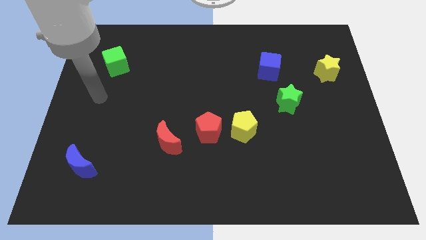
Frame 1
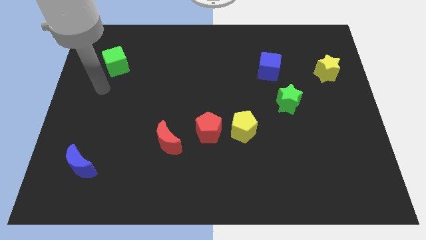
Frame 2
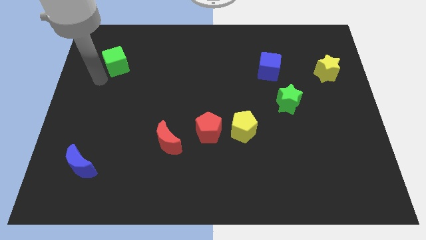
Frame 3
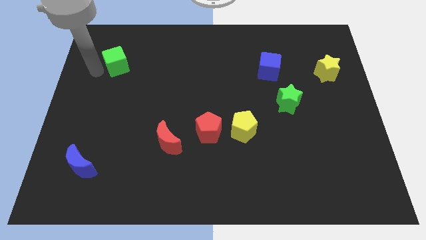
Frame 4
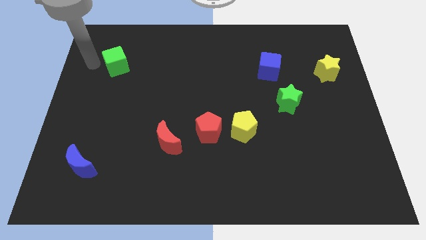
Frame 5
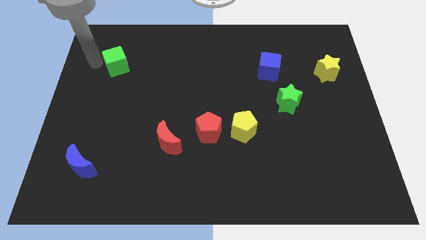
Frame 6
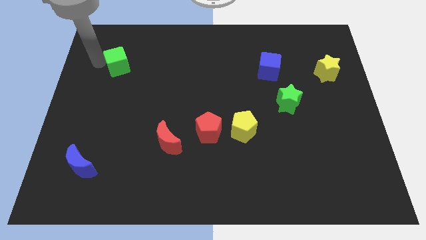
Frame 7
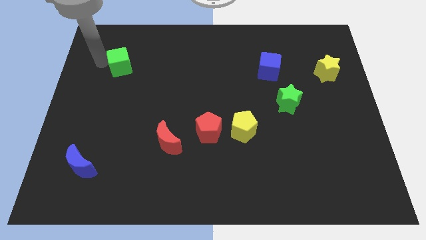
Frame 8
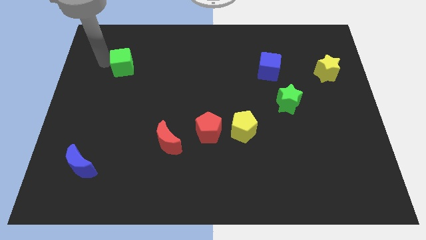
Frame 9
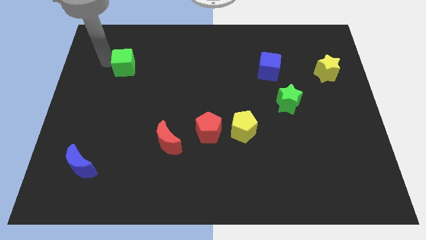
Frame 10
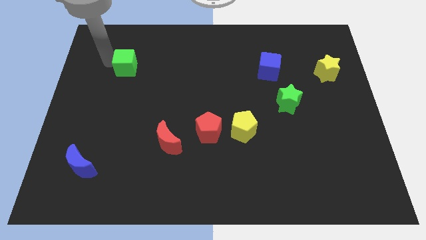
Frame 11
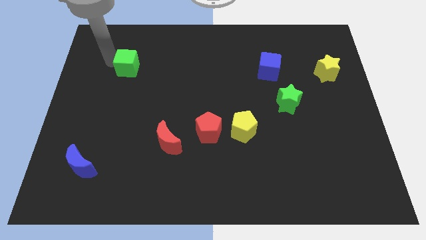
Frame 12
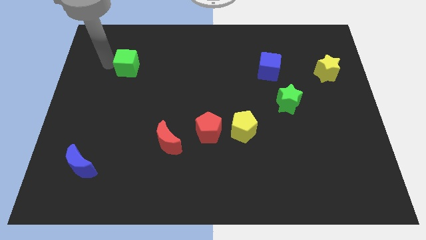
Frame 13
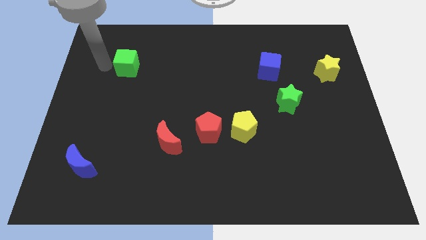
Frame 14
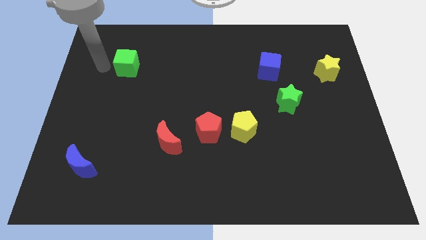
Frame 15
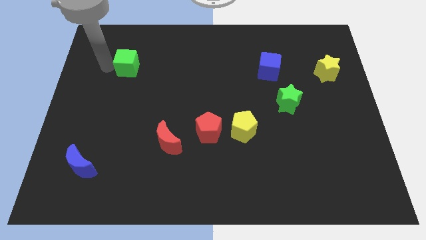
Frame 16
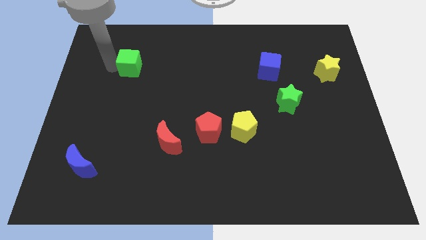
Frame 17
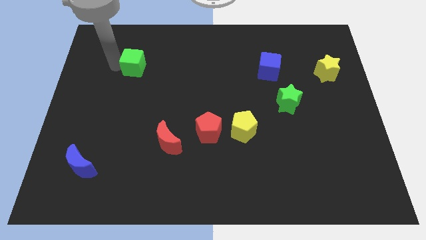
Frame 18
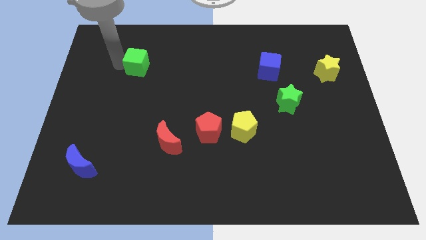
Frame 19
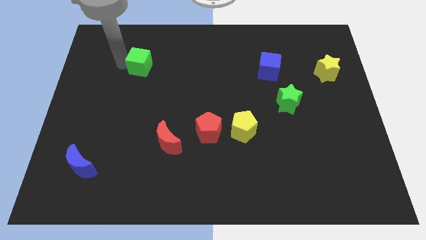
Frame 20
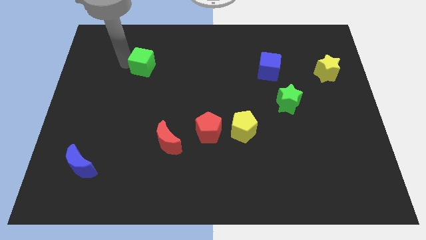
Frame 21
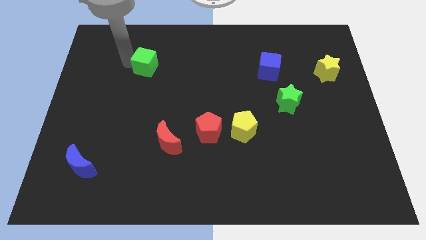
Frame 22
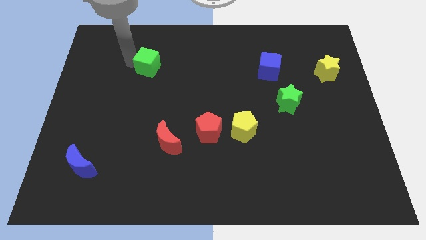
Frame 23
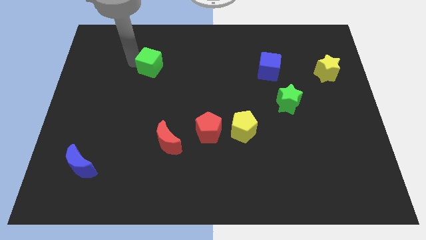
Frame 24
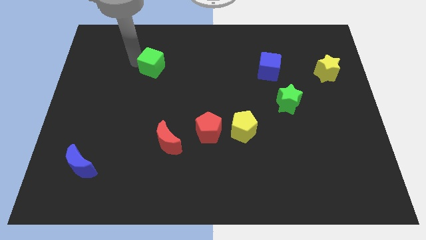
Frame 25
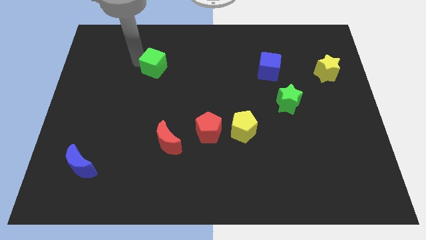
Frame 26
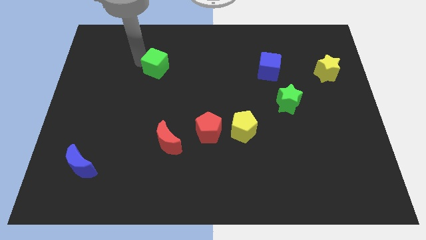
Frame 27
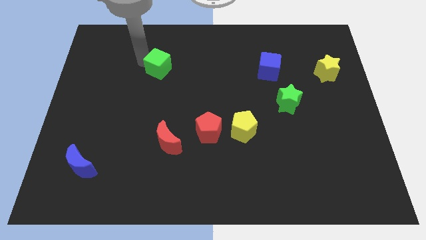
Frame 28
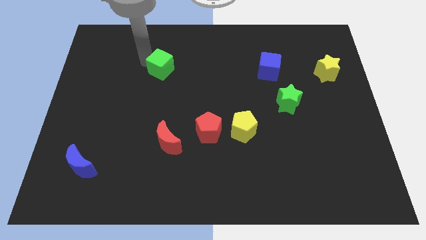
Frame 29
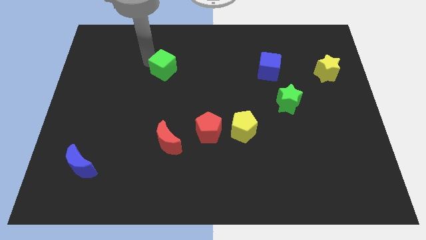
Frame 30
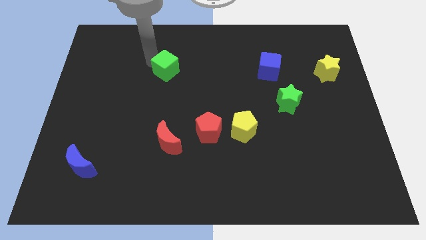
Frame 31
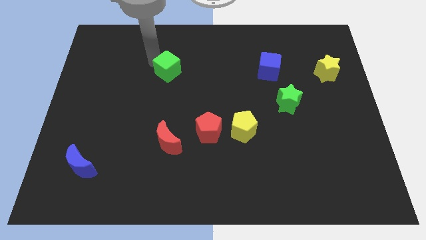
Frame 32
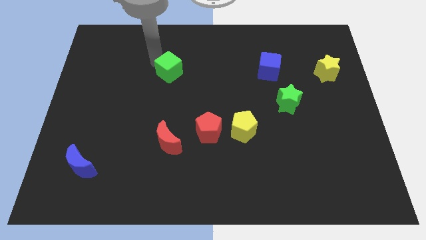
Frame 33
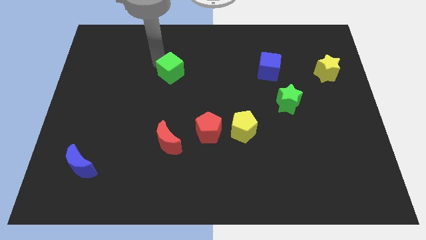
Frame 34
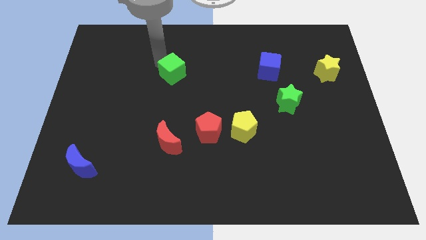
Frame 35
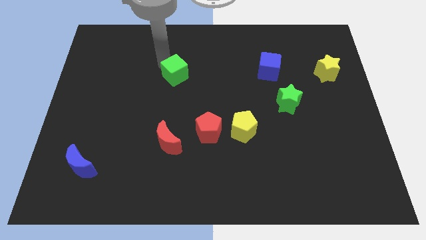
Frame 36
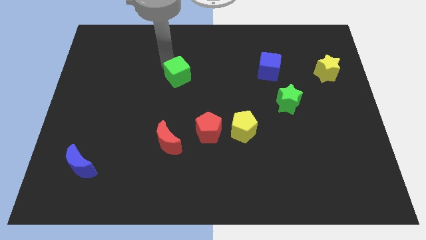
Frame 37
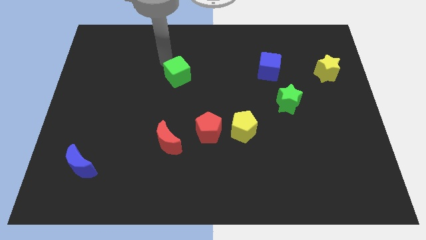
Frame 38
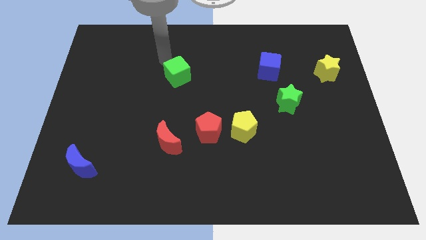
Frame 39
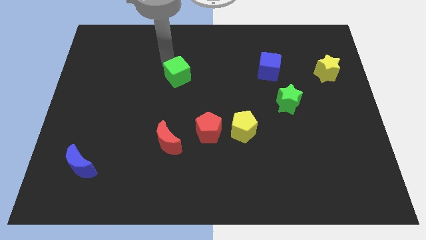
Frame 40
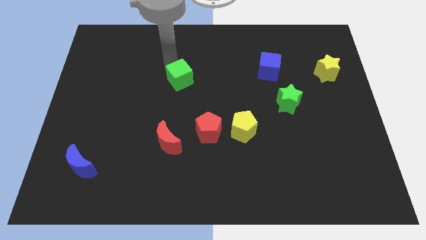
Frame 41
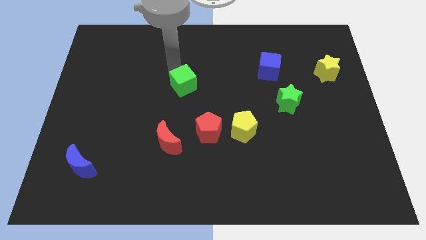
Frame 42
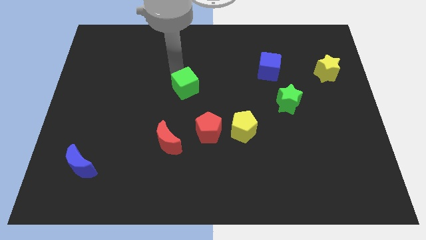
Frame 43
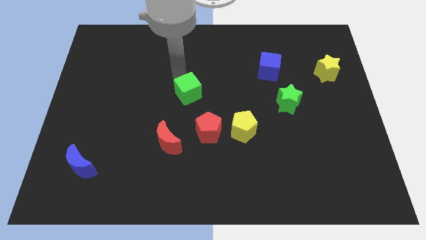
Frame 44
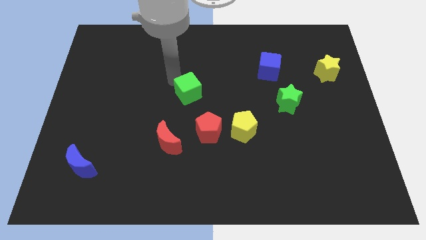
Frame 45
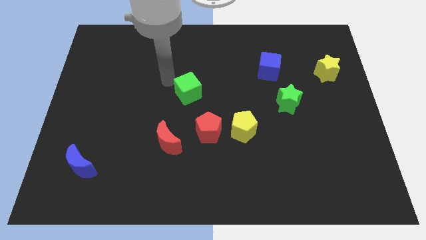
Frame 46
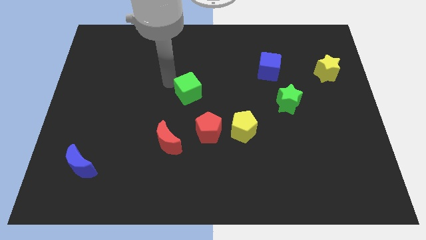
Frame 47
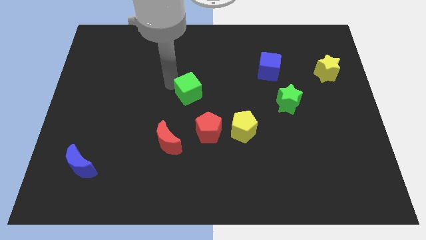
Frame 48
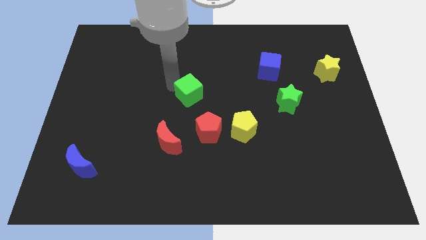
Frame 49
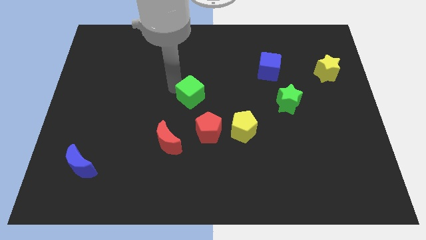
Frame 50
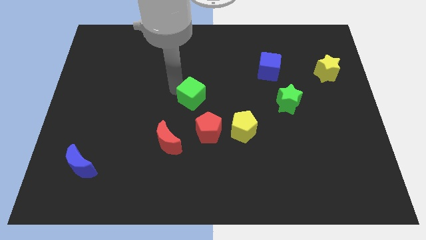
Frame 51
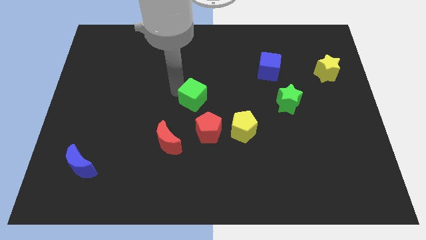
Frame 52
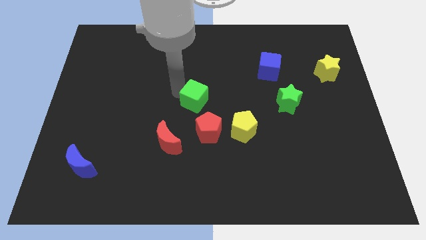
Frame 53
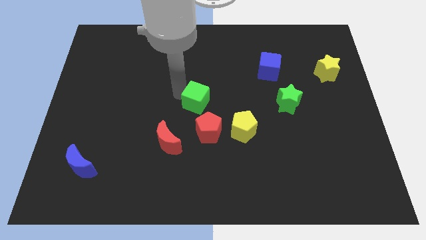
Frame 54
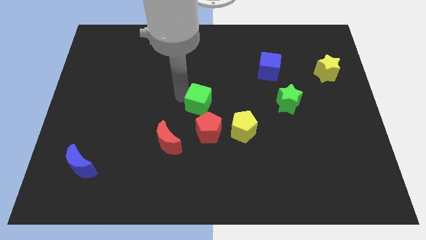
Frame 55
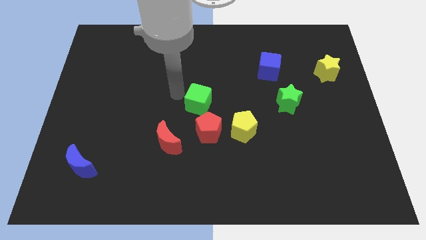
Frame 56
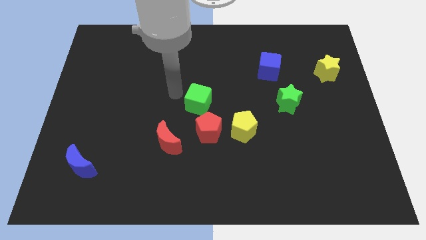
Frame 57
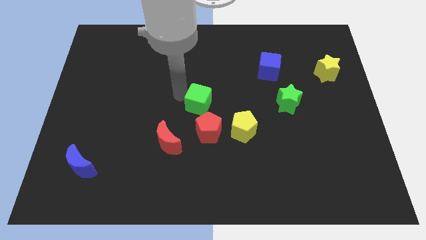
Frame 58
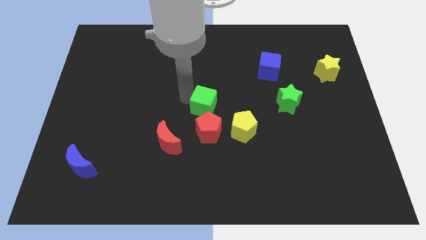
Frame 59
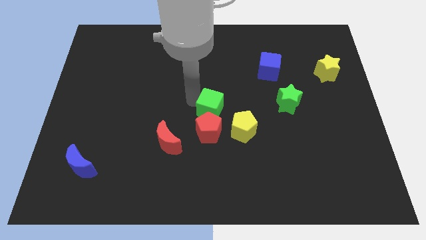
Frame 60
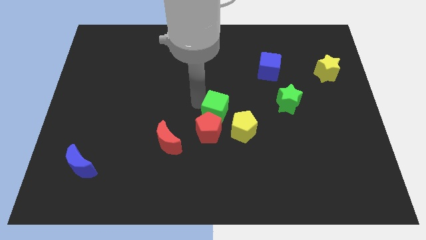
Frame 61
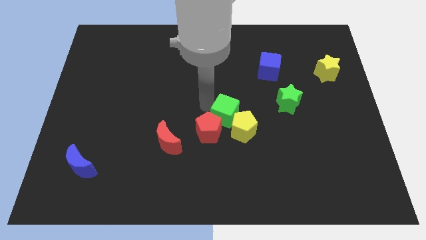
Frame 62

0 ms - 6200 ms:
put the green cube to the yellow pentagon

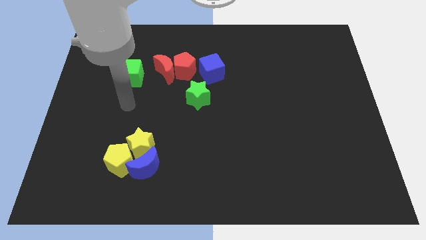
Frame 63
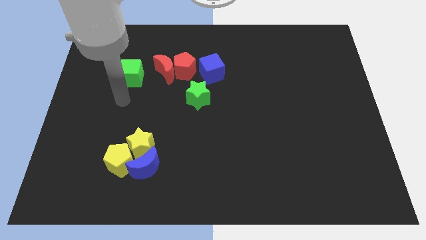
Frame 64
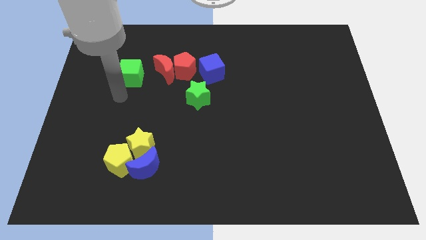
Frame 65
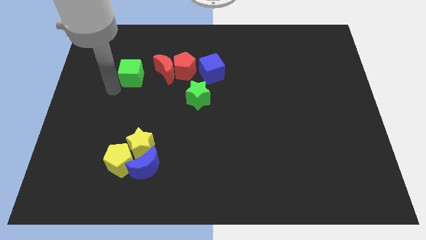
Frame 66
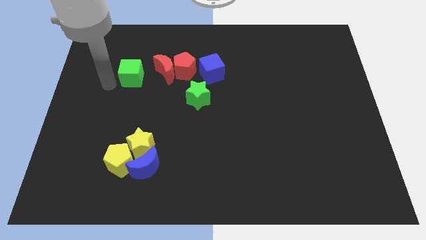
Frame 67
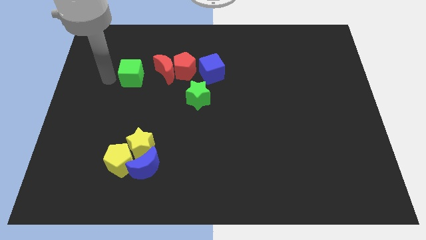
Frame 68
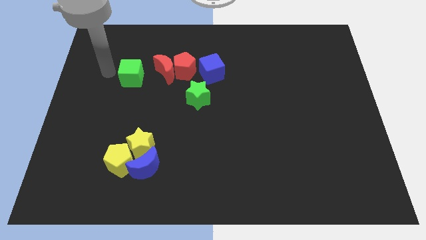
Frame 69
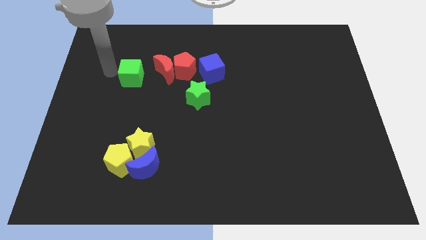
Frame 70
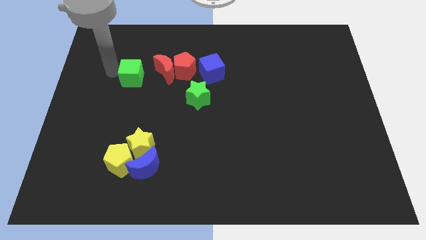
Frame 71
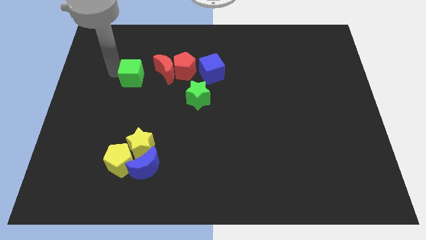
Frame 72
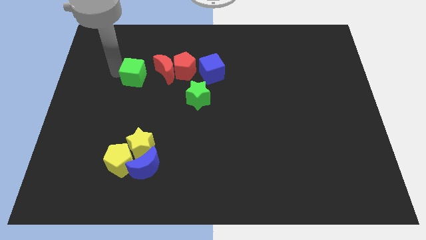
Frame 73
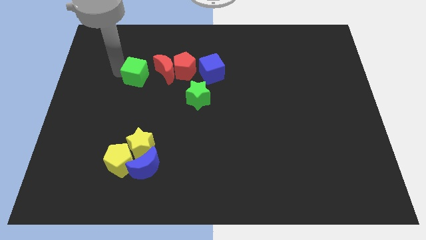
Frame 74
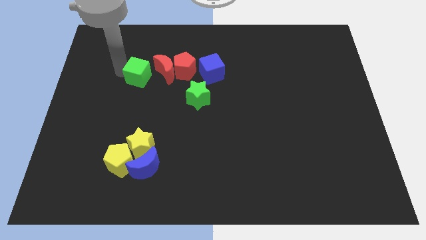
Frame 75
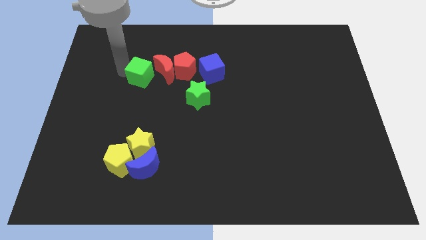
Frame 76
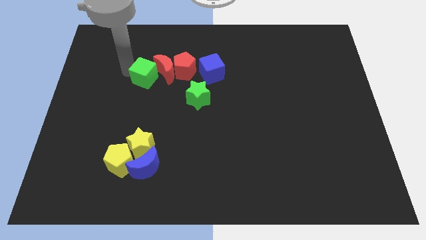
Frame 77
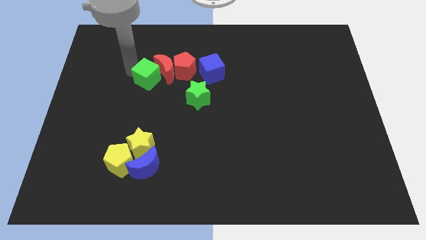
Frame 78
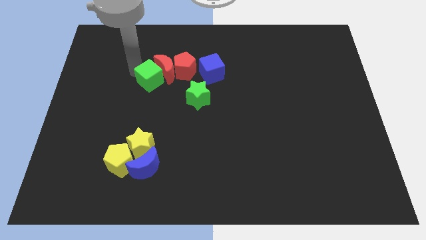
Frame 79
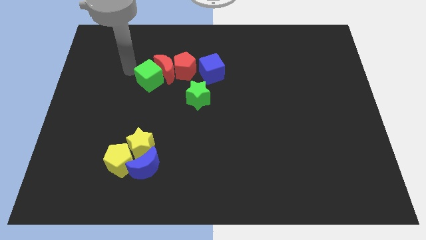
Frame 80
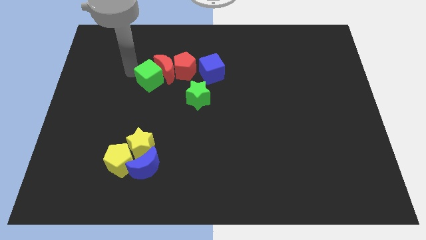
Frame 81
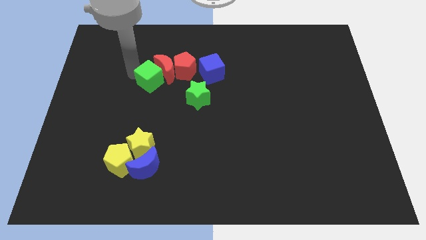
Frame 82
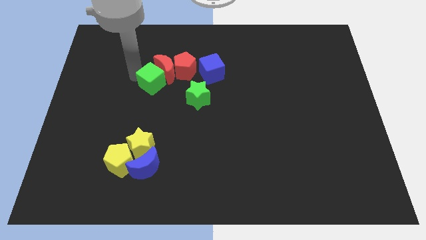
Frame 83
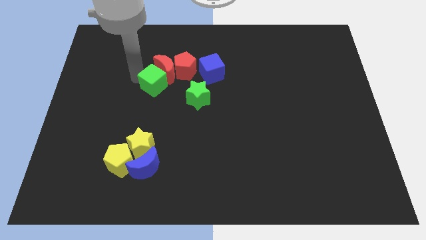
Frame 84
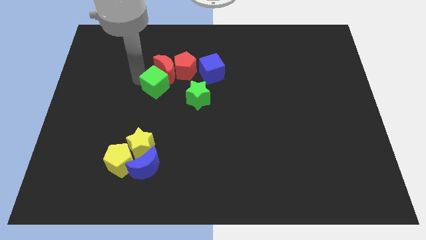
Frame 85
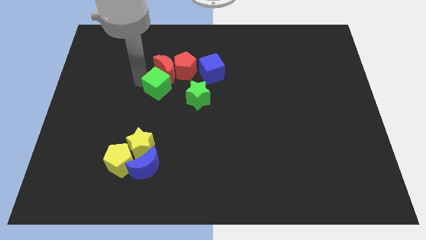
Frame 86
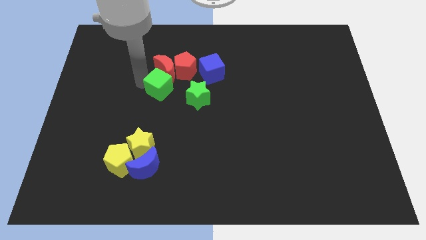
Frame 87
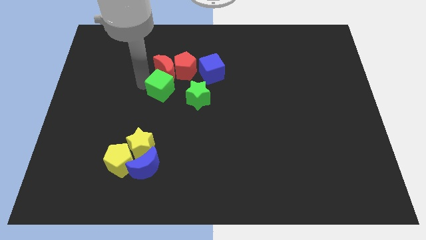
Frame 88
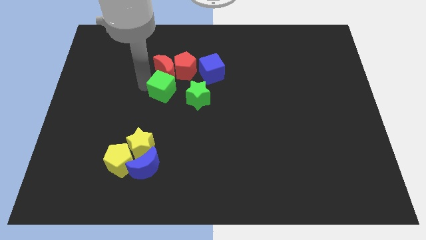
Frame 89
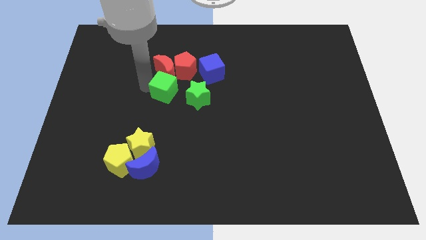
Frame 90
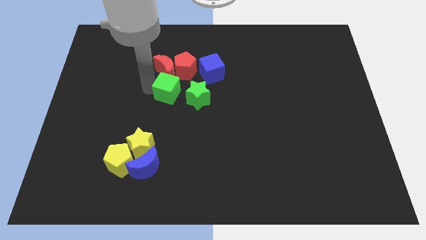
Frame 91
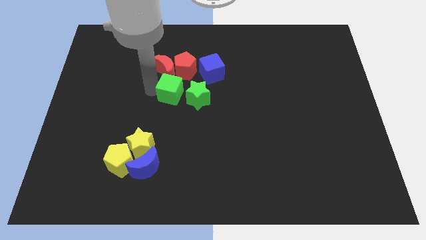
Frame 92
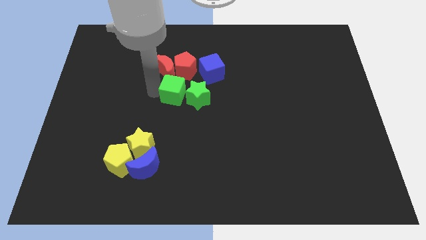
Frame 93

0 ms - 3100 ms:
put the green cube close to the green star
